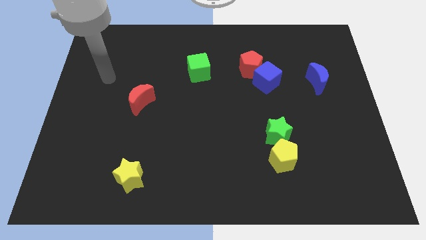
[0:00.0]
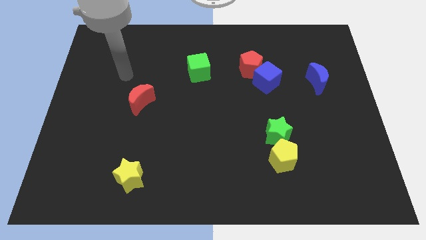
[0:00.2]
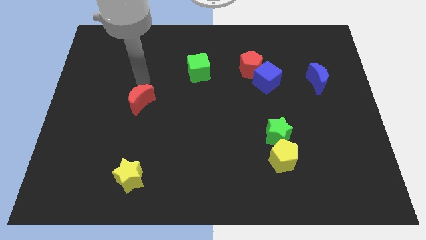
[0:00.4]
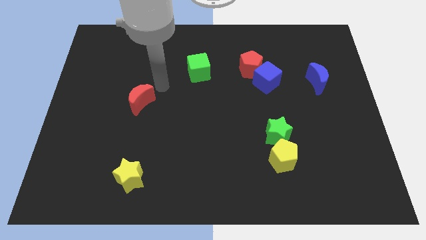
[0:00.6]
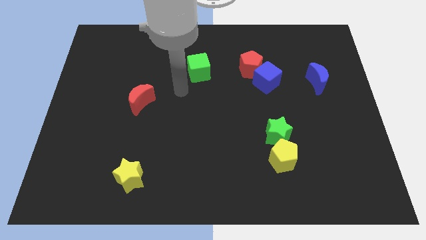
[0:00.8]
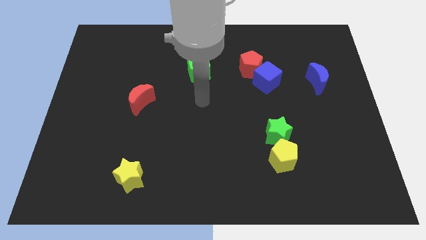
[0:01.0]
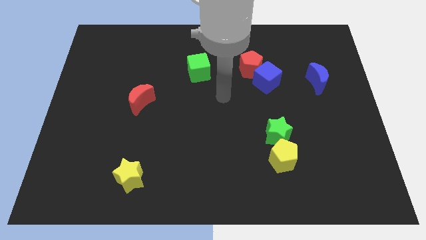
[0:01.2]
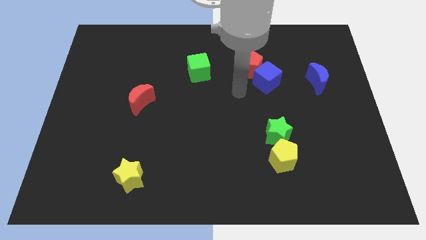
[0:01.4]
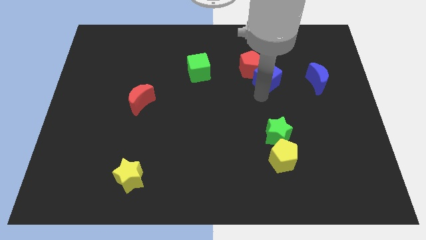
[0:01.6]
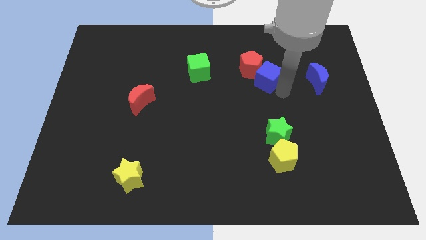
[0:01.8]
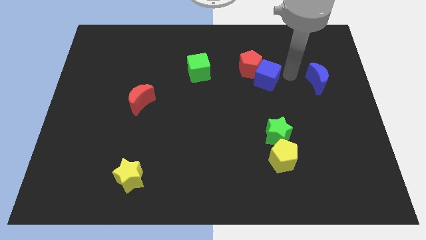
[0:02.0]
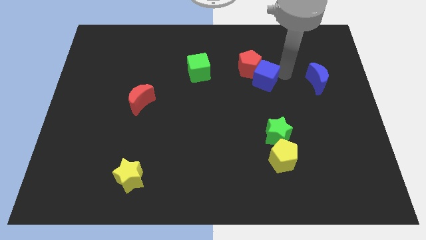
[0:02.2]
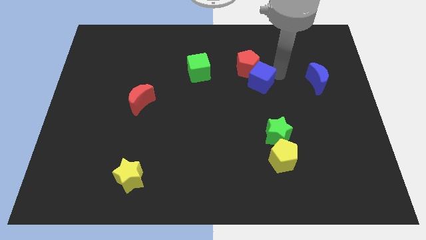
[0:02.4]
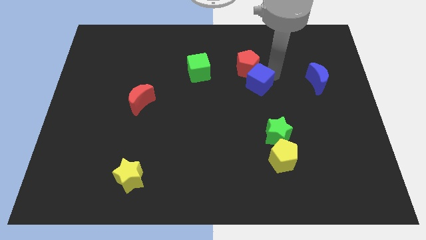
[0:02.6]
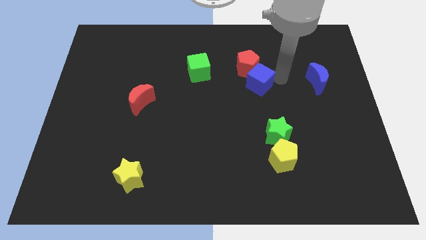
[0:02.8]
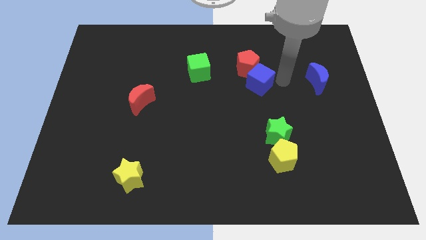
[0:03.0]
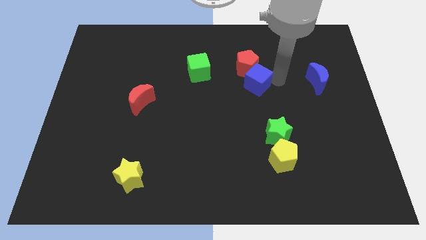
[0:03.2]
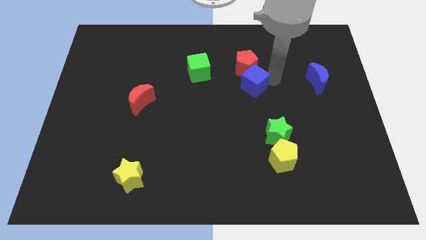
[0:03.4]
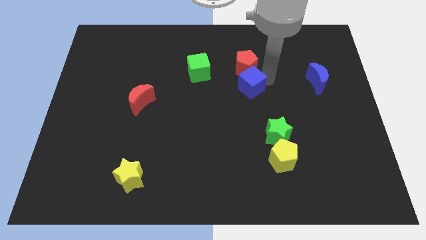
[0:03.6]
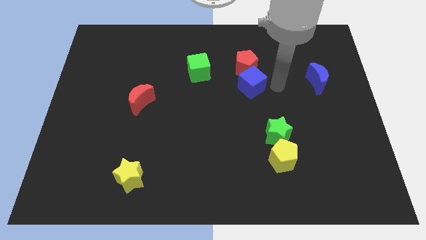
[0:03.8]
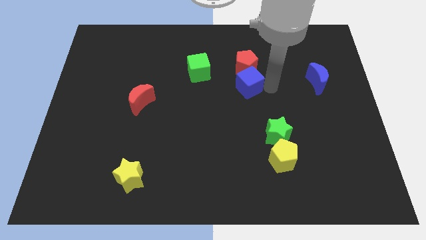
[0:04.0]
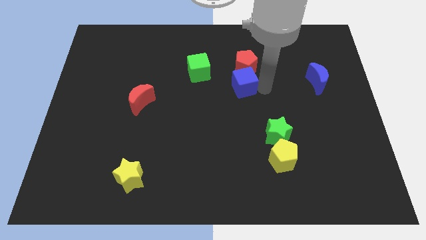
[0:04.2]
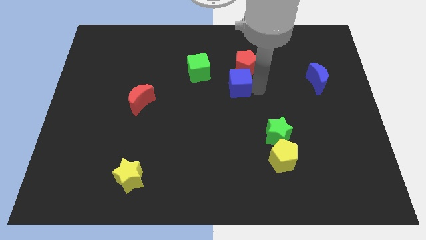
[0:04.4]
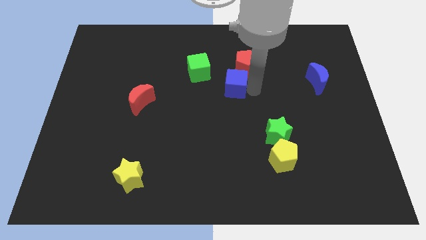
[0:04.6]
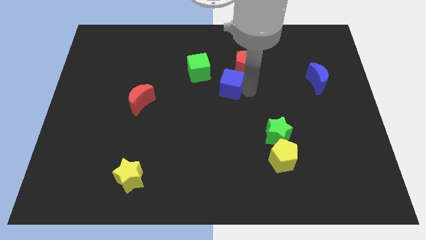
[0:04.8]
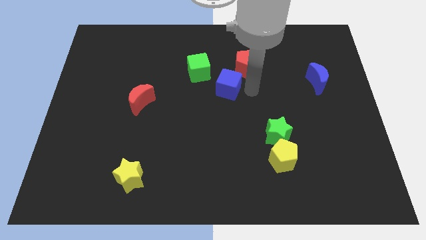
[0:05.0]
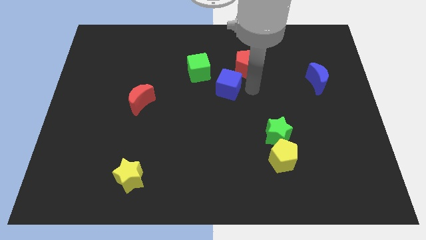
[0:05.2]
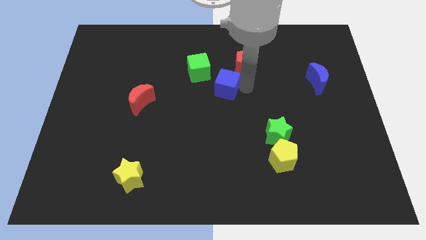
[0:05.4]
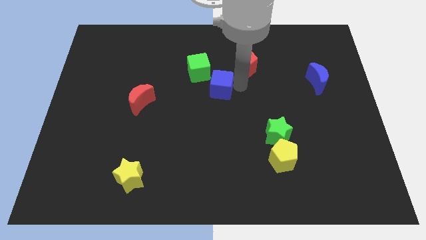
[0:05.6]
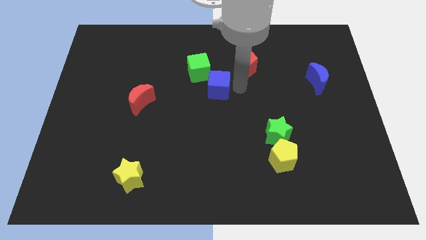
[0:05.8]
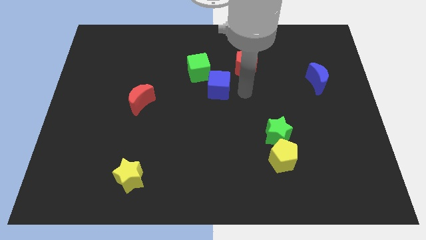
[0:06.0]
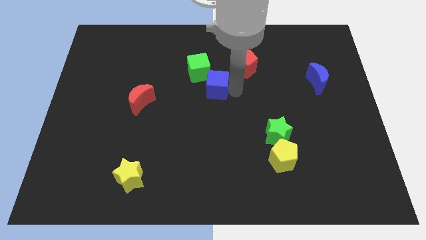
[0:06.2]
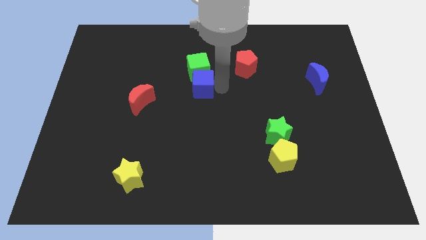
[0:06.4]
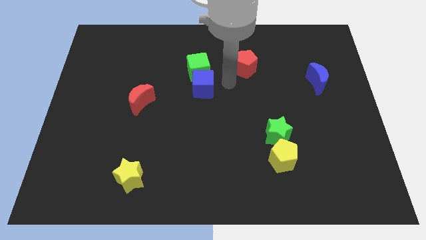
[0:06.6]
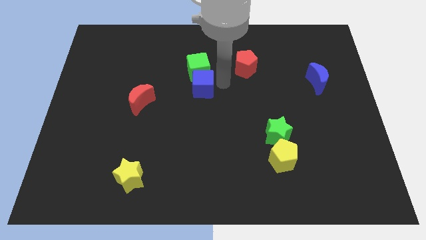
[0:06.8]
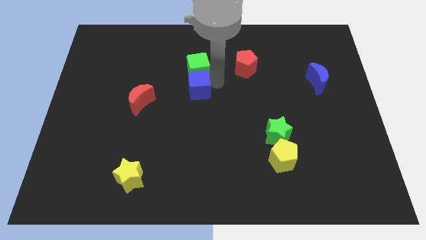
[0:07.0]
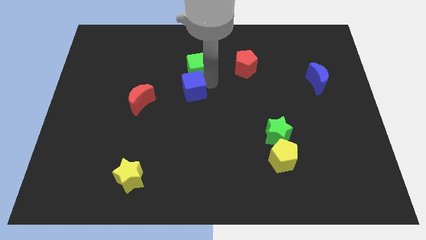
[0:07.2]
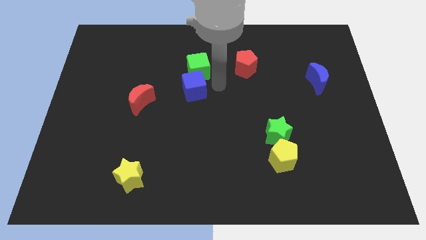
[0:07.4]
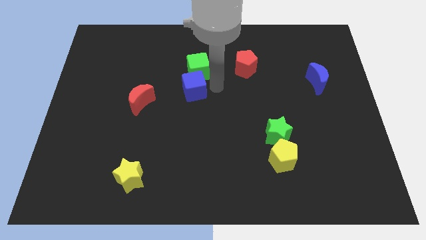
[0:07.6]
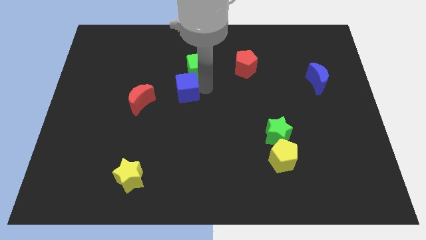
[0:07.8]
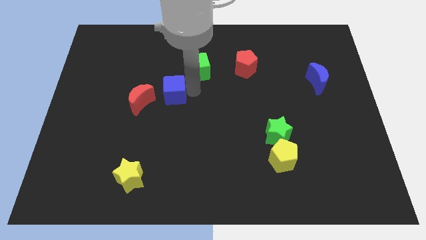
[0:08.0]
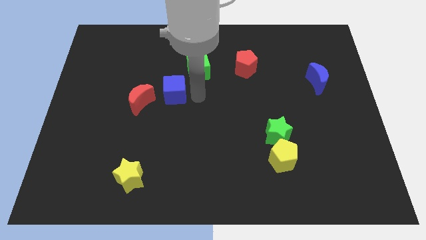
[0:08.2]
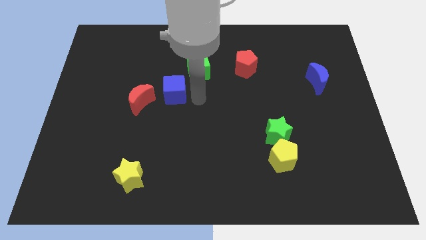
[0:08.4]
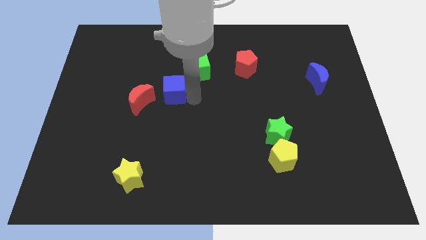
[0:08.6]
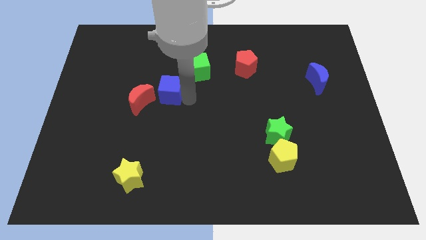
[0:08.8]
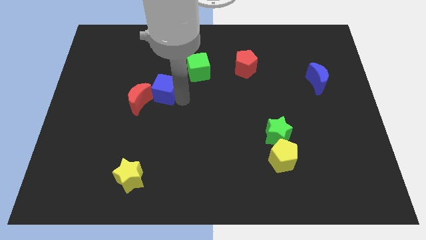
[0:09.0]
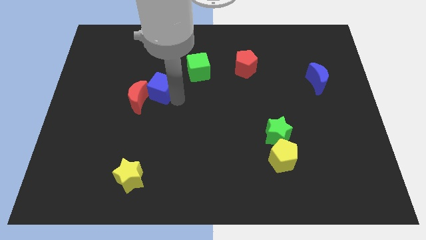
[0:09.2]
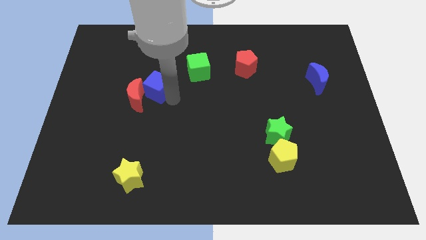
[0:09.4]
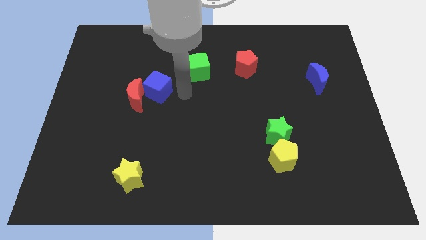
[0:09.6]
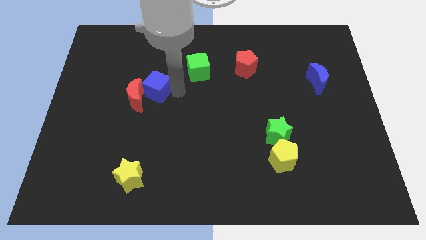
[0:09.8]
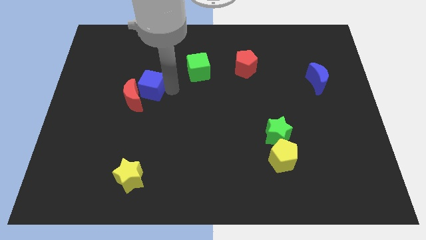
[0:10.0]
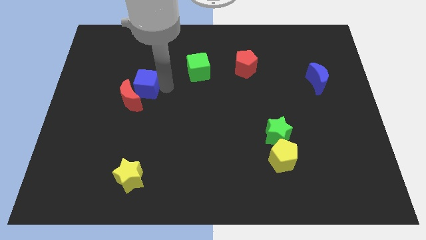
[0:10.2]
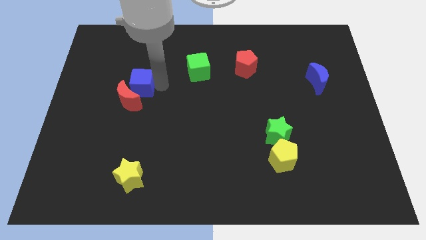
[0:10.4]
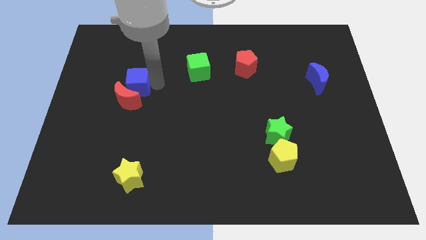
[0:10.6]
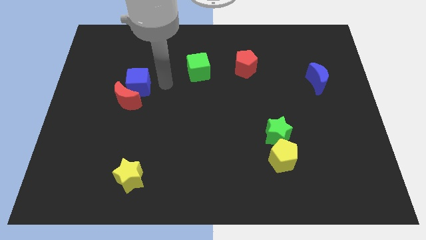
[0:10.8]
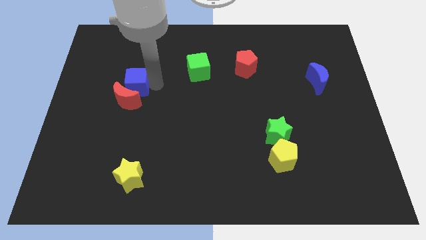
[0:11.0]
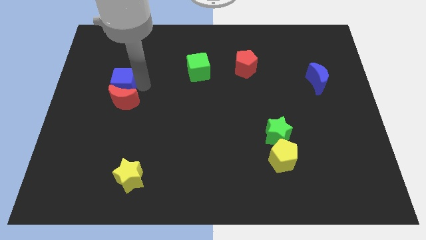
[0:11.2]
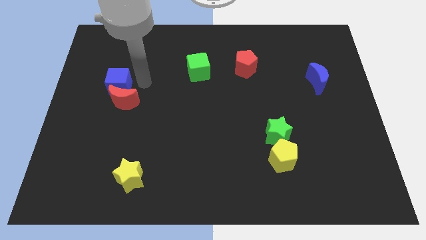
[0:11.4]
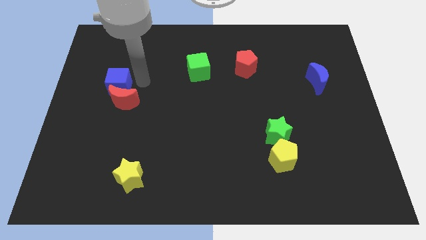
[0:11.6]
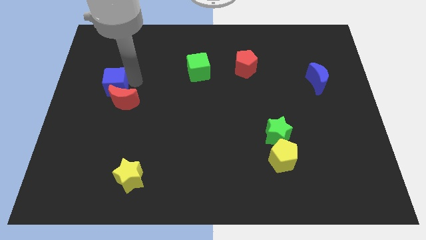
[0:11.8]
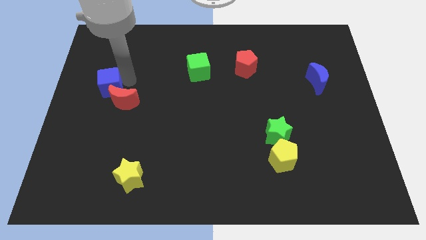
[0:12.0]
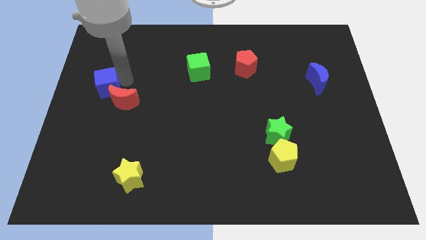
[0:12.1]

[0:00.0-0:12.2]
push the blue cube to the left side
